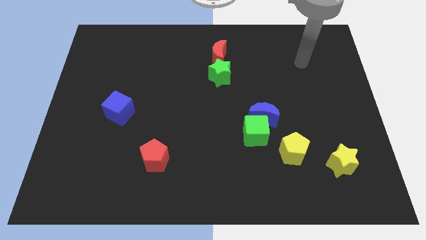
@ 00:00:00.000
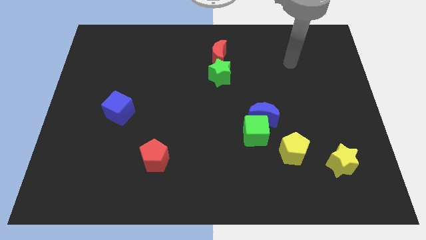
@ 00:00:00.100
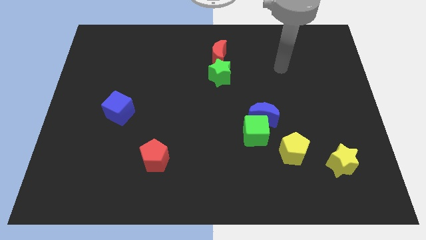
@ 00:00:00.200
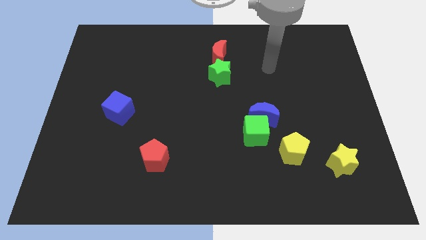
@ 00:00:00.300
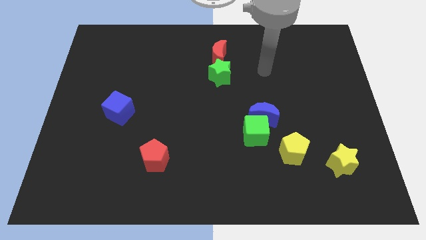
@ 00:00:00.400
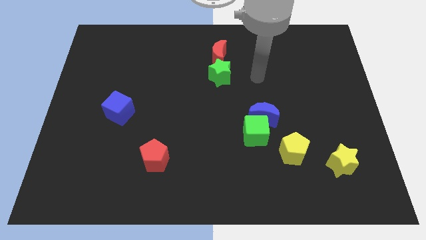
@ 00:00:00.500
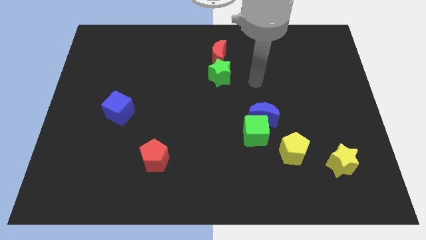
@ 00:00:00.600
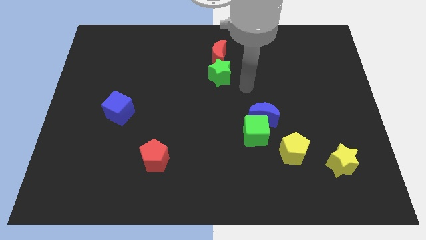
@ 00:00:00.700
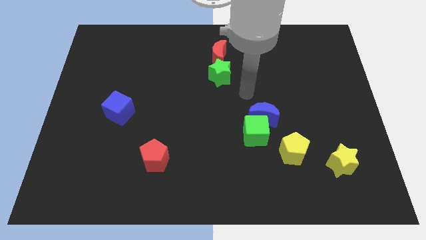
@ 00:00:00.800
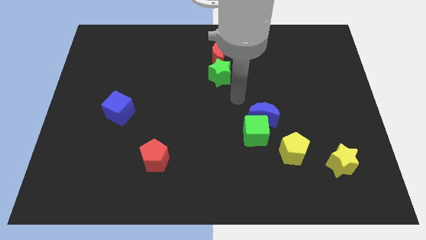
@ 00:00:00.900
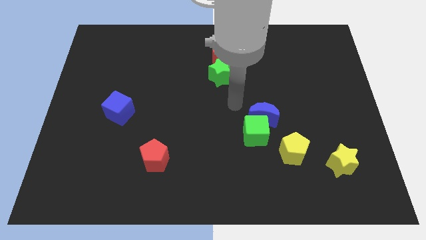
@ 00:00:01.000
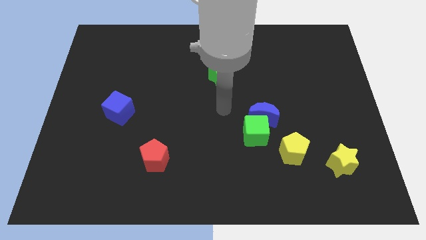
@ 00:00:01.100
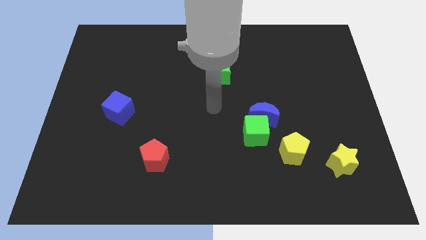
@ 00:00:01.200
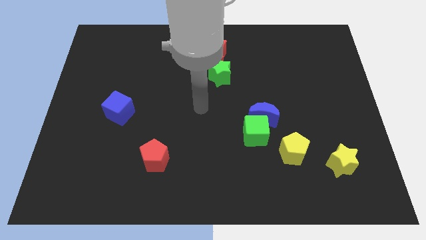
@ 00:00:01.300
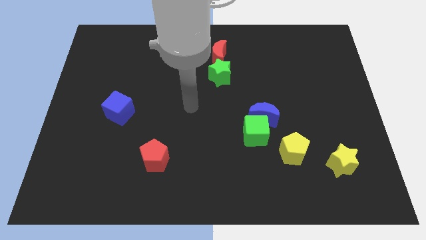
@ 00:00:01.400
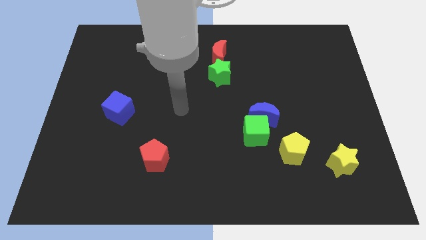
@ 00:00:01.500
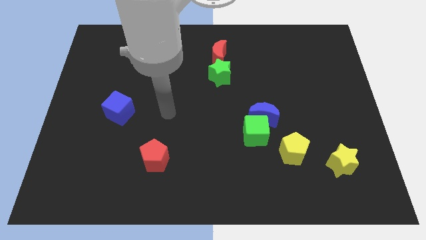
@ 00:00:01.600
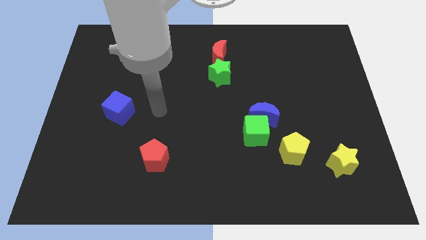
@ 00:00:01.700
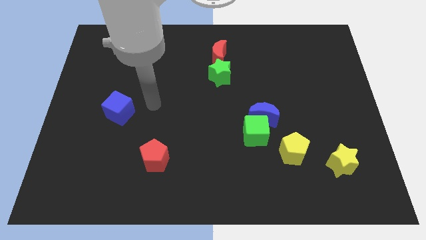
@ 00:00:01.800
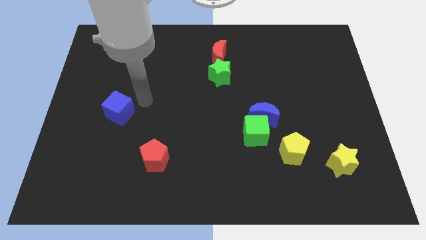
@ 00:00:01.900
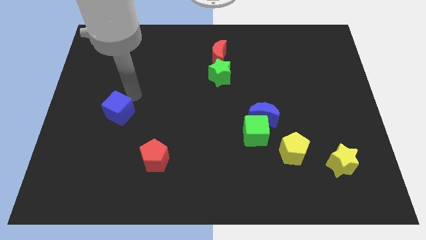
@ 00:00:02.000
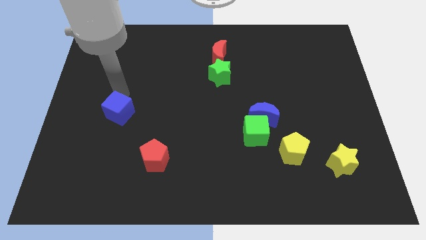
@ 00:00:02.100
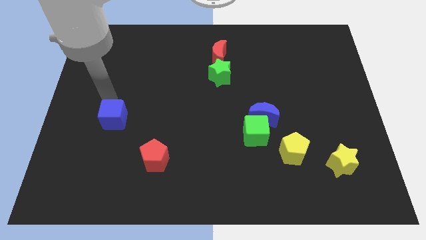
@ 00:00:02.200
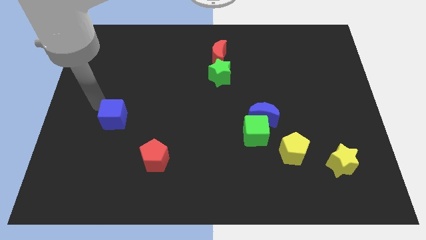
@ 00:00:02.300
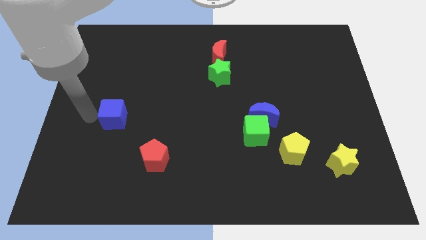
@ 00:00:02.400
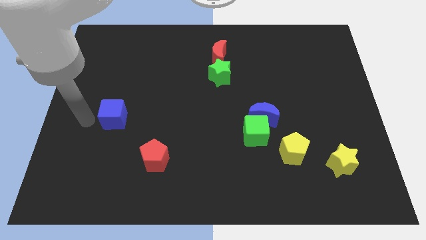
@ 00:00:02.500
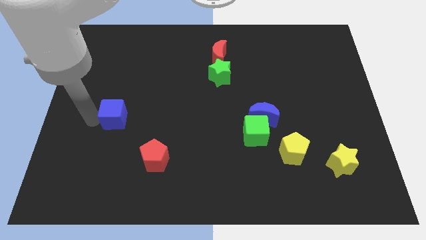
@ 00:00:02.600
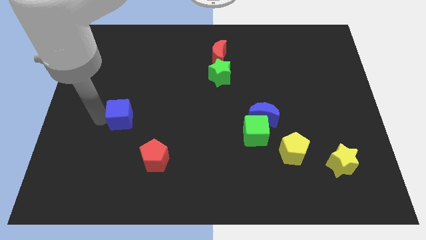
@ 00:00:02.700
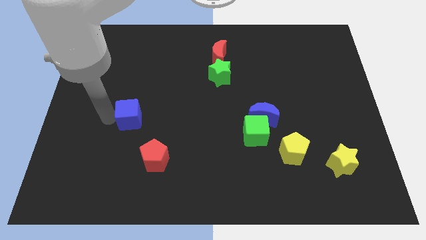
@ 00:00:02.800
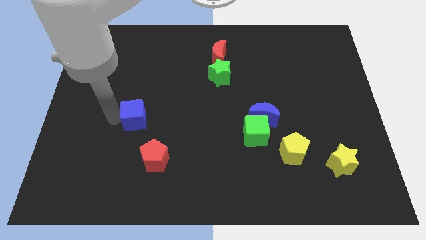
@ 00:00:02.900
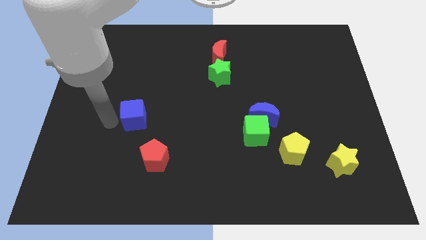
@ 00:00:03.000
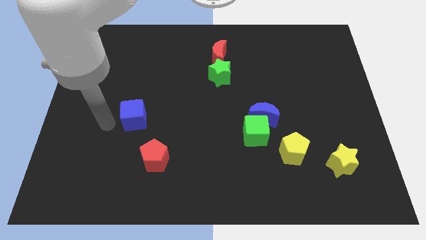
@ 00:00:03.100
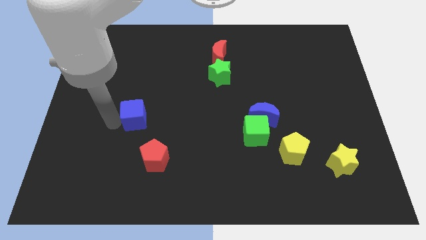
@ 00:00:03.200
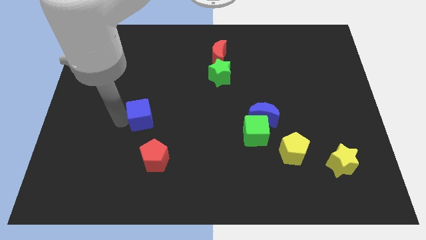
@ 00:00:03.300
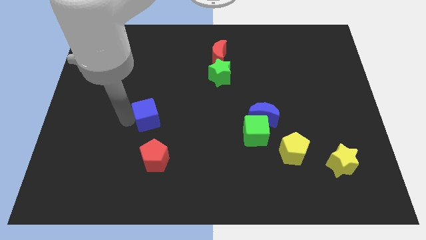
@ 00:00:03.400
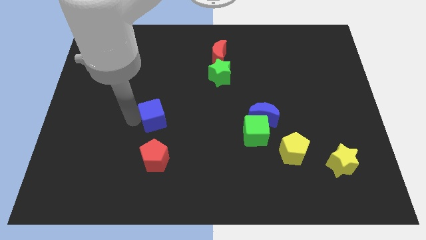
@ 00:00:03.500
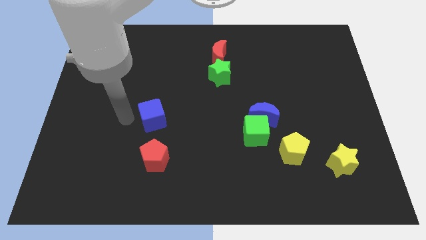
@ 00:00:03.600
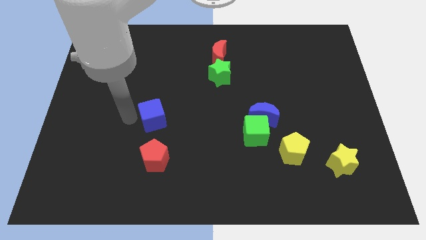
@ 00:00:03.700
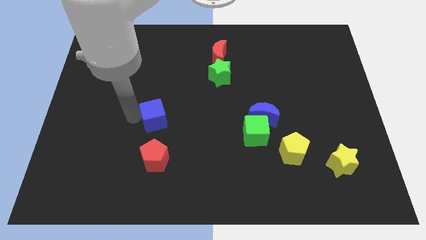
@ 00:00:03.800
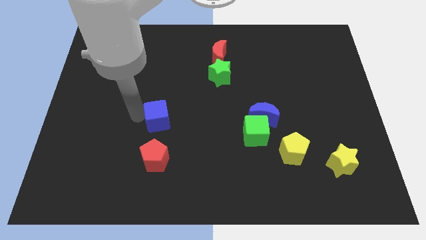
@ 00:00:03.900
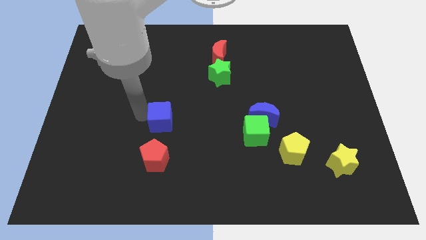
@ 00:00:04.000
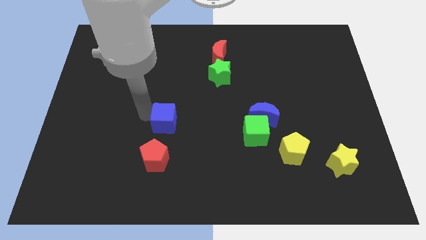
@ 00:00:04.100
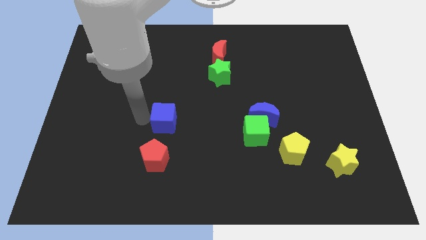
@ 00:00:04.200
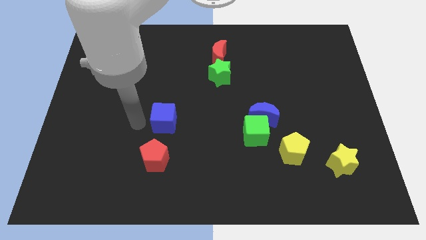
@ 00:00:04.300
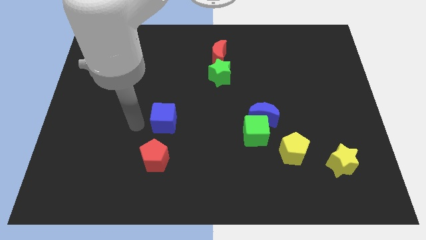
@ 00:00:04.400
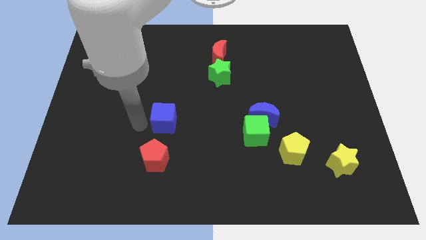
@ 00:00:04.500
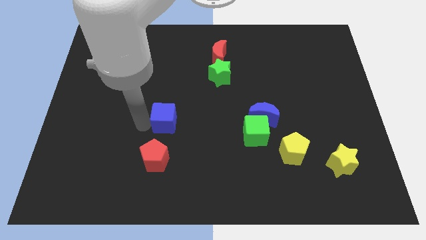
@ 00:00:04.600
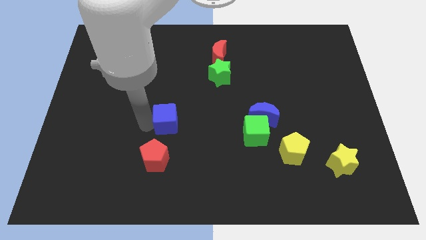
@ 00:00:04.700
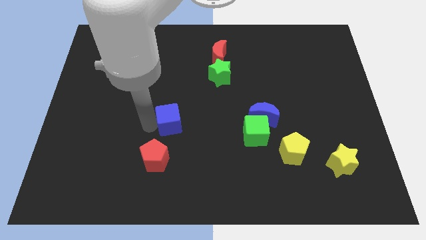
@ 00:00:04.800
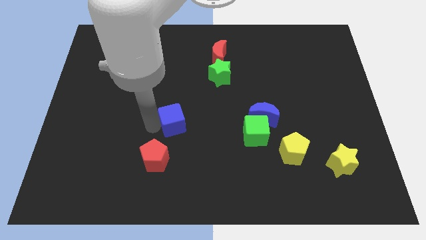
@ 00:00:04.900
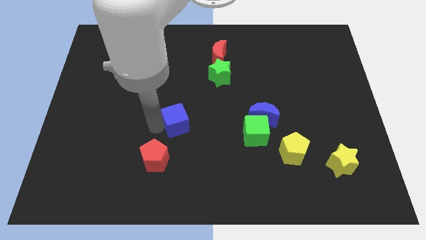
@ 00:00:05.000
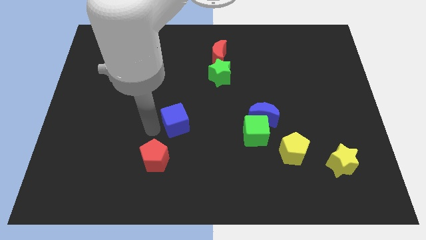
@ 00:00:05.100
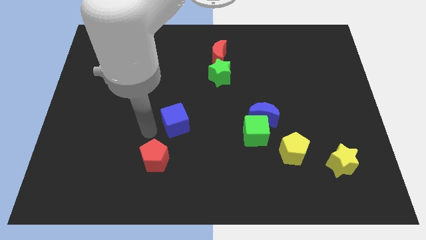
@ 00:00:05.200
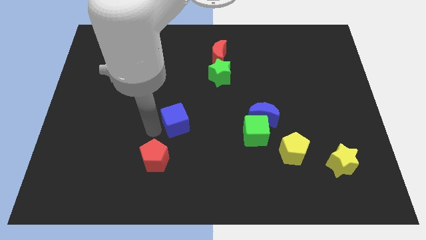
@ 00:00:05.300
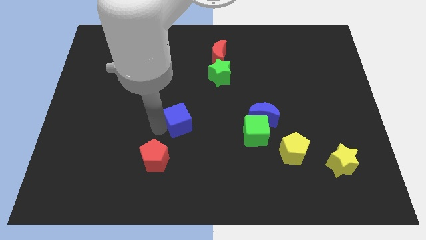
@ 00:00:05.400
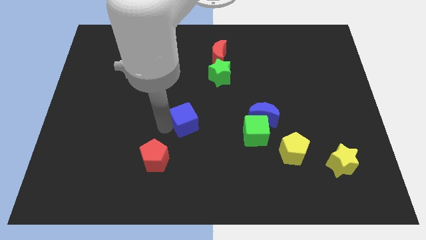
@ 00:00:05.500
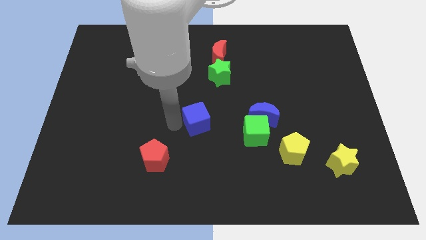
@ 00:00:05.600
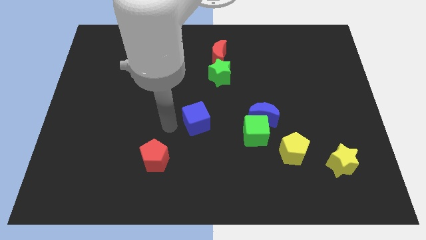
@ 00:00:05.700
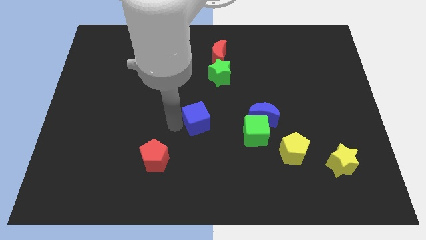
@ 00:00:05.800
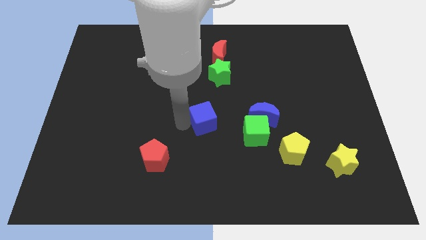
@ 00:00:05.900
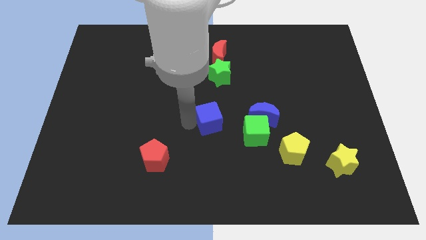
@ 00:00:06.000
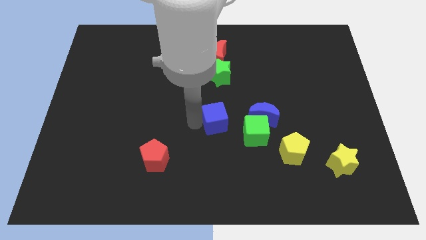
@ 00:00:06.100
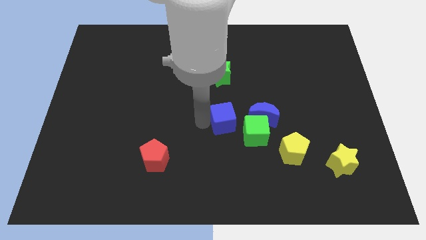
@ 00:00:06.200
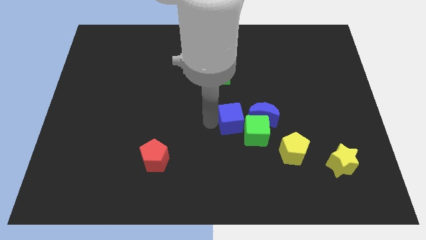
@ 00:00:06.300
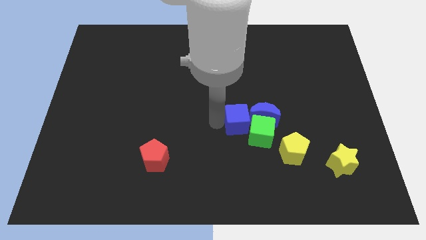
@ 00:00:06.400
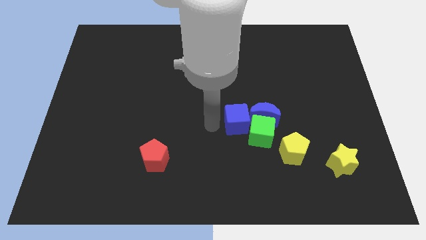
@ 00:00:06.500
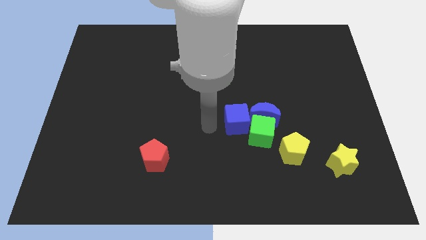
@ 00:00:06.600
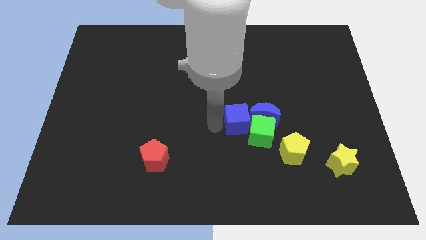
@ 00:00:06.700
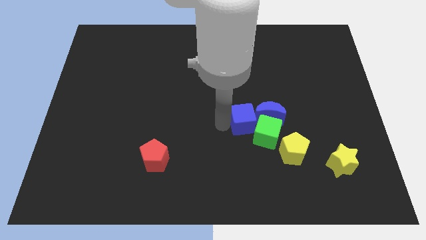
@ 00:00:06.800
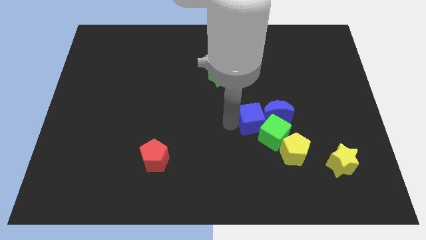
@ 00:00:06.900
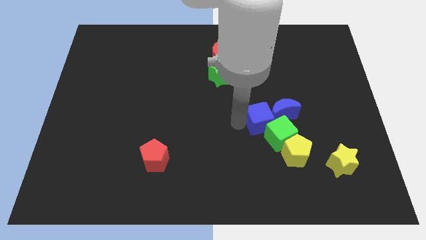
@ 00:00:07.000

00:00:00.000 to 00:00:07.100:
slide the blue cube to the blue moon
